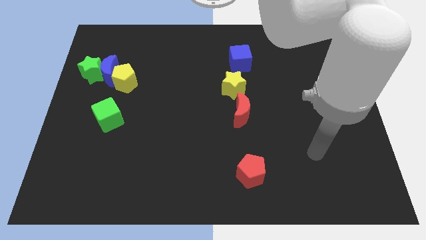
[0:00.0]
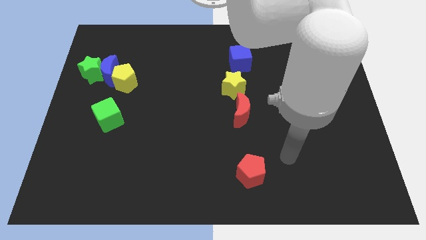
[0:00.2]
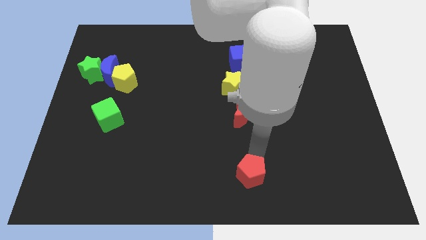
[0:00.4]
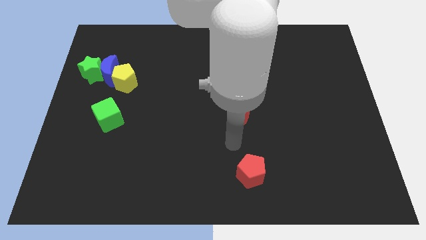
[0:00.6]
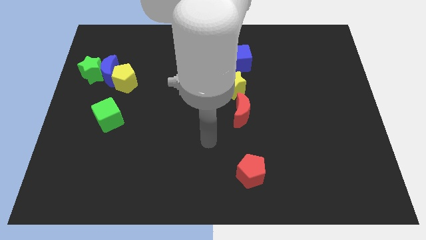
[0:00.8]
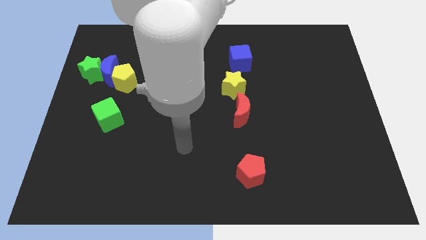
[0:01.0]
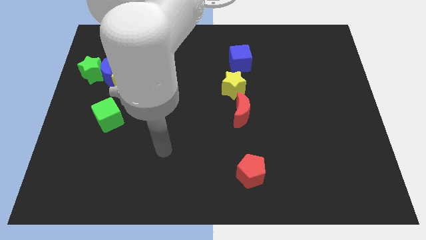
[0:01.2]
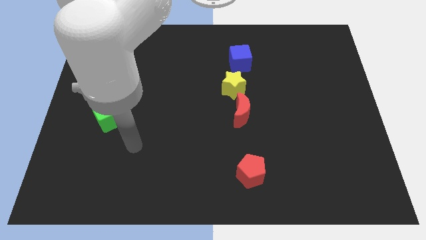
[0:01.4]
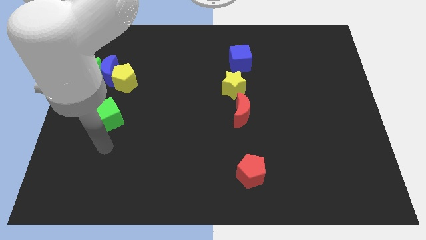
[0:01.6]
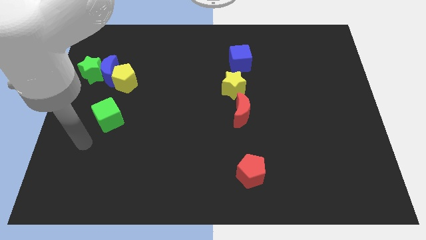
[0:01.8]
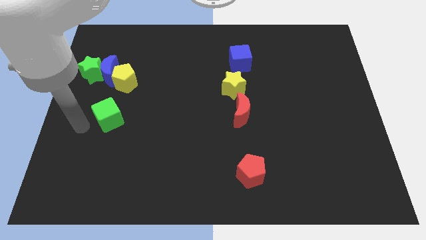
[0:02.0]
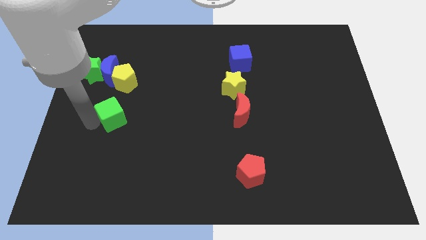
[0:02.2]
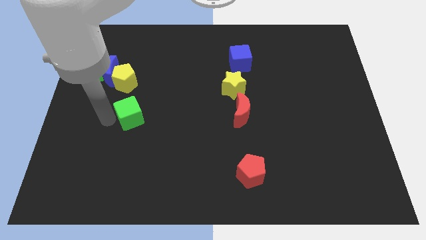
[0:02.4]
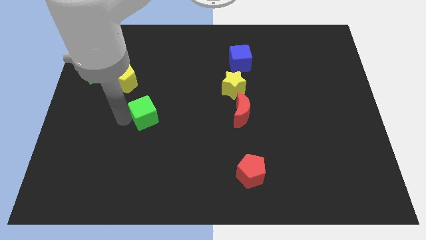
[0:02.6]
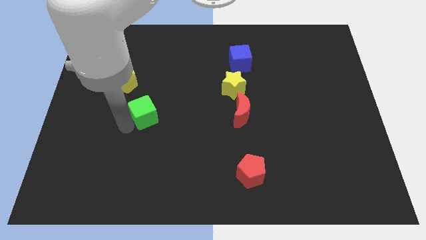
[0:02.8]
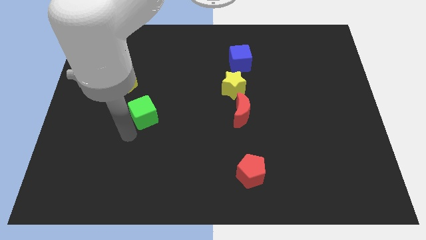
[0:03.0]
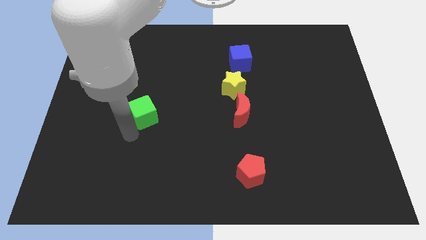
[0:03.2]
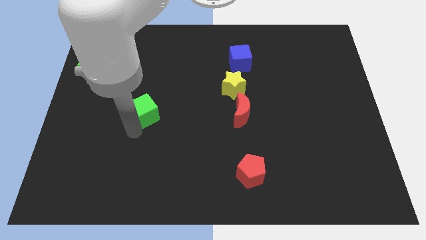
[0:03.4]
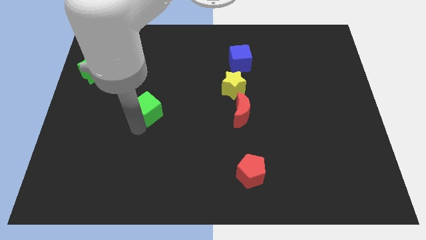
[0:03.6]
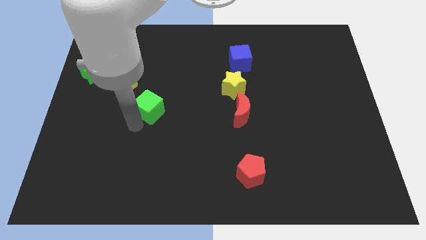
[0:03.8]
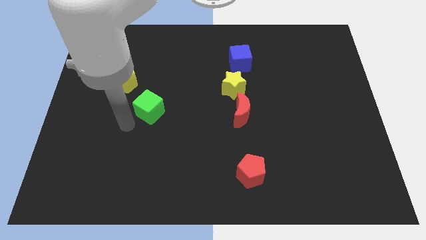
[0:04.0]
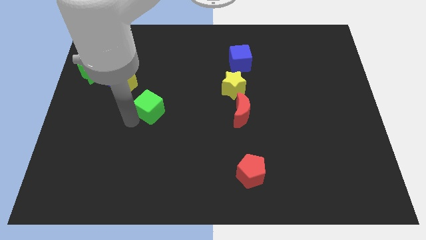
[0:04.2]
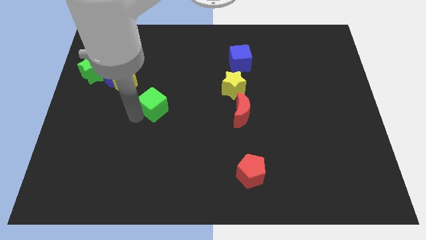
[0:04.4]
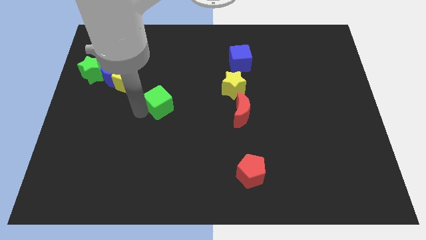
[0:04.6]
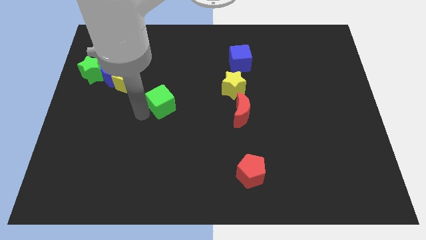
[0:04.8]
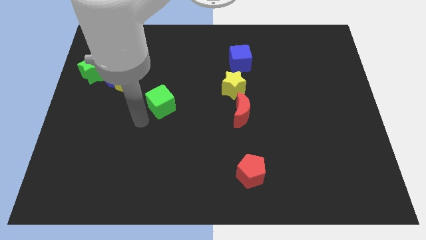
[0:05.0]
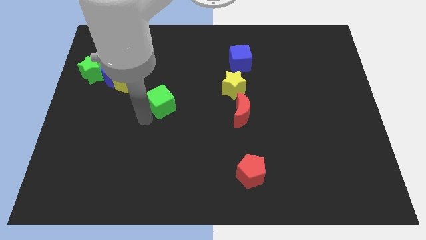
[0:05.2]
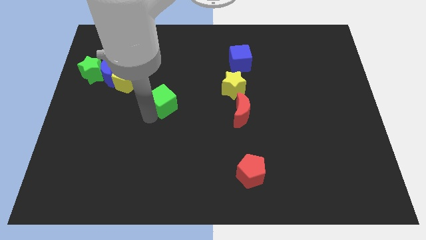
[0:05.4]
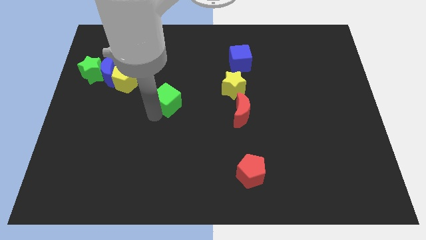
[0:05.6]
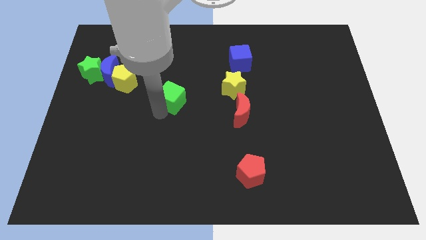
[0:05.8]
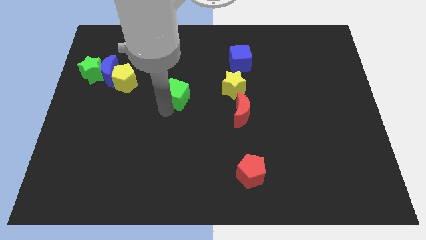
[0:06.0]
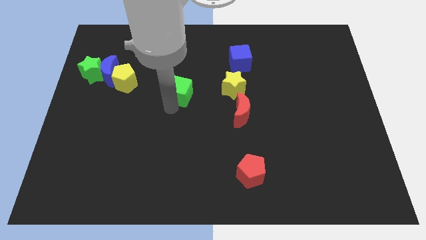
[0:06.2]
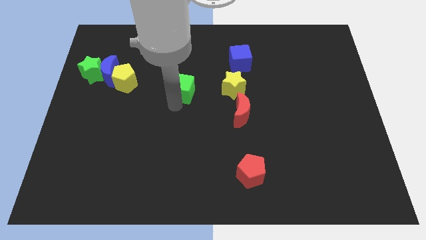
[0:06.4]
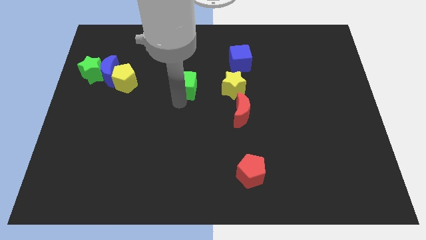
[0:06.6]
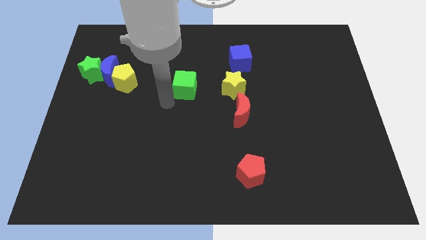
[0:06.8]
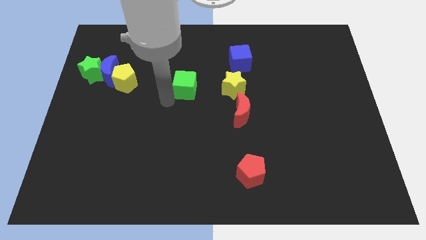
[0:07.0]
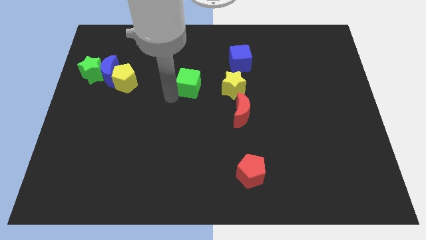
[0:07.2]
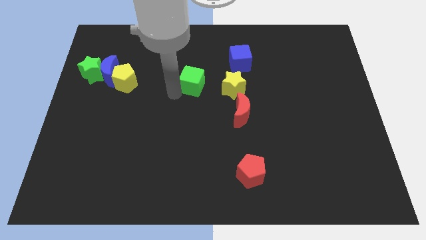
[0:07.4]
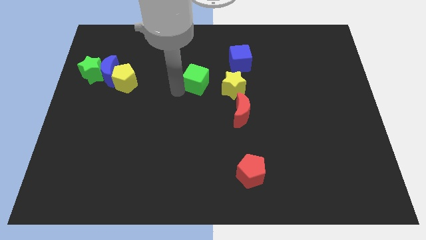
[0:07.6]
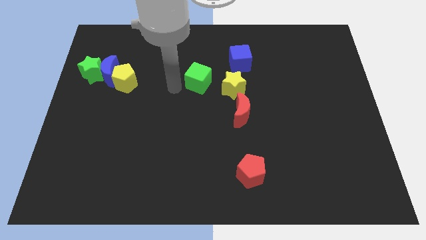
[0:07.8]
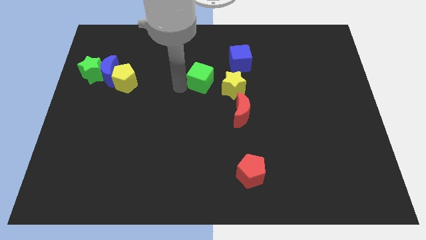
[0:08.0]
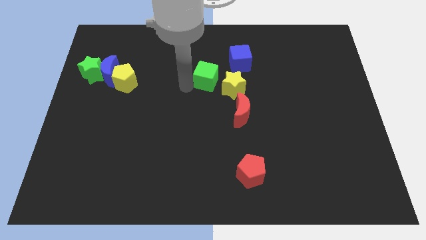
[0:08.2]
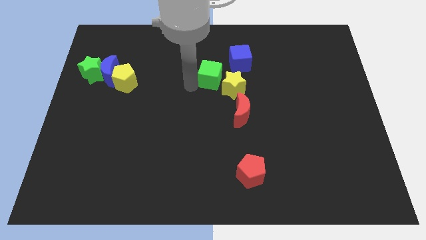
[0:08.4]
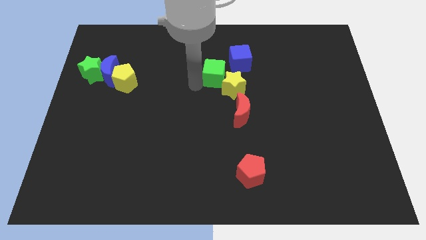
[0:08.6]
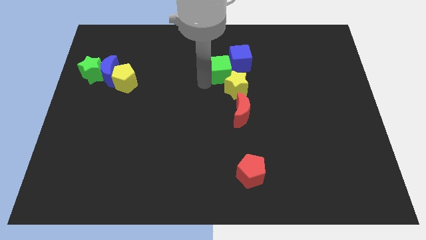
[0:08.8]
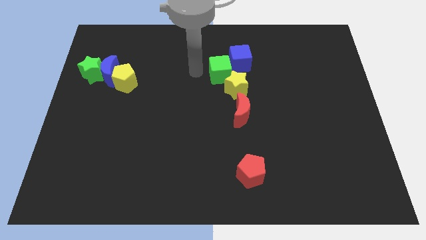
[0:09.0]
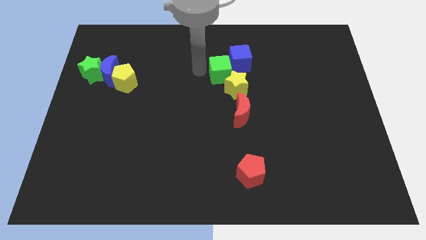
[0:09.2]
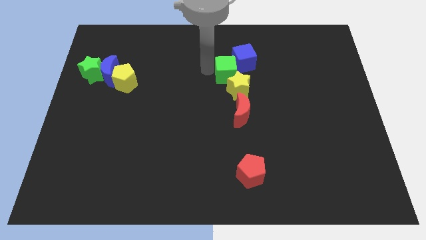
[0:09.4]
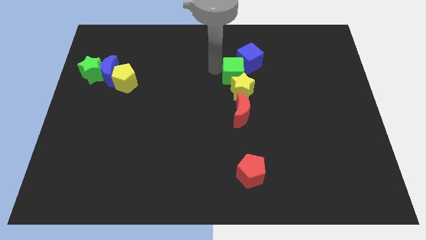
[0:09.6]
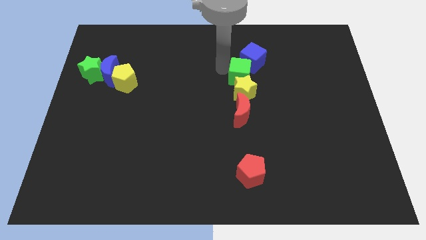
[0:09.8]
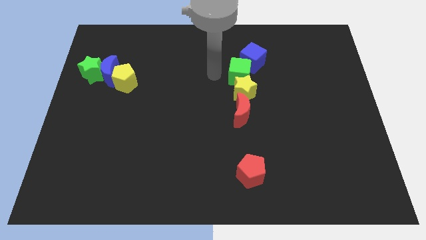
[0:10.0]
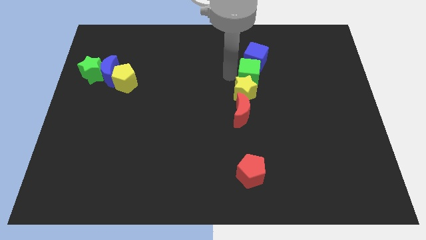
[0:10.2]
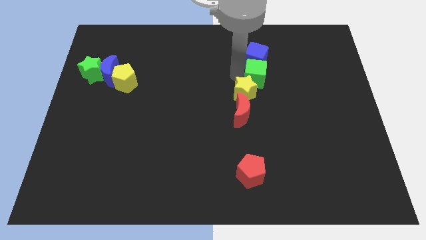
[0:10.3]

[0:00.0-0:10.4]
push the green cube diagonally down and to the right of the blue cube

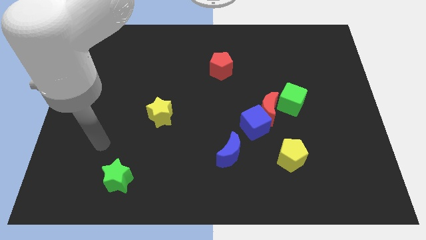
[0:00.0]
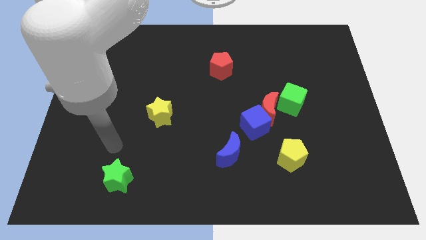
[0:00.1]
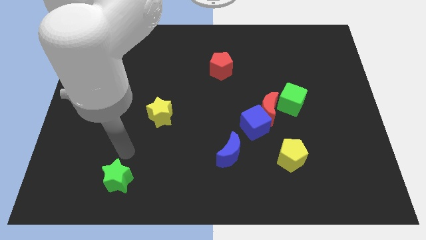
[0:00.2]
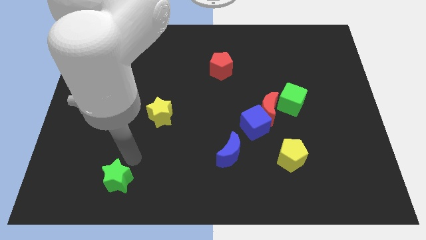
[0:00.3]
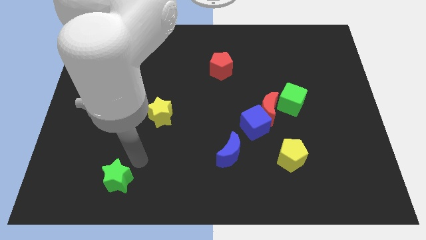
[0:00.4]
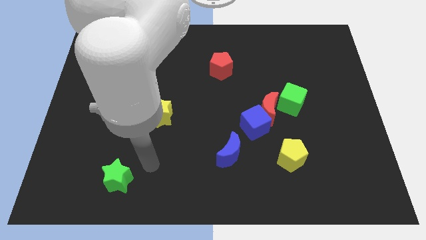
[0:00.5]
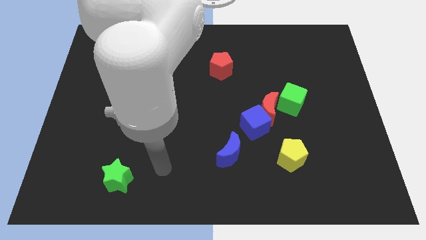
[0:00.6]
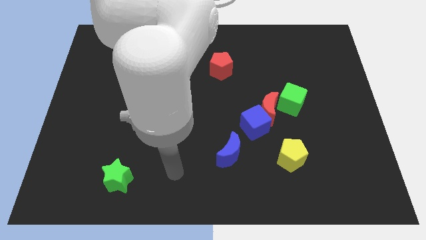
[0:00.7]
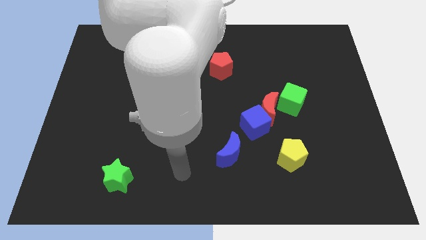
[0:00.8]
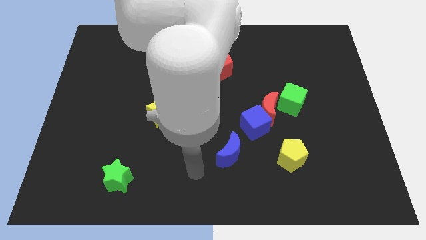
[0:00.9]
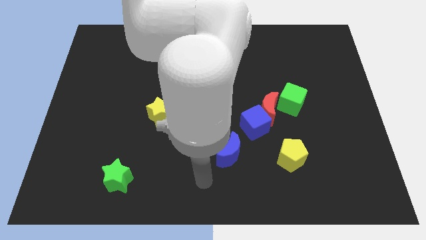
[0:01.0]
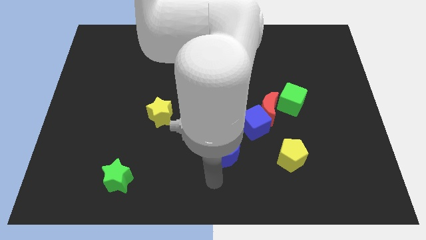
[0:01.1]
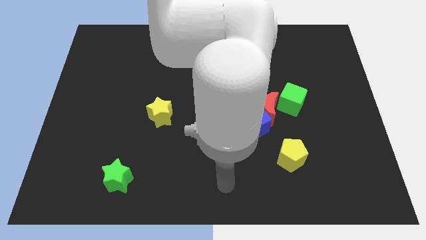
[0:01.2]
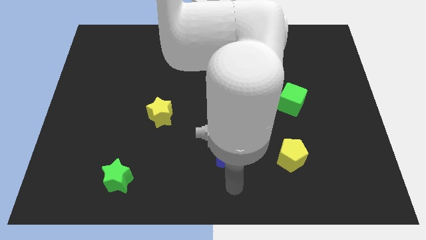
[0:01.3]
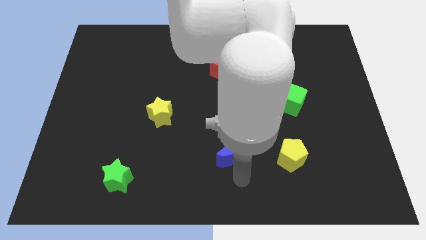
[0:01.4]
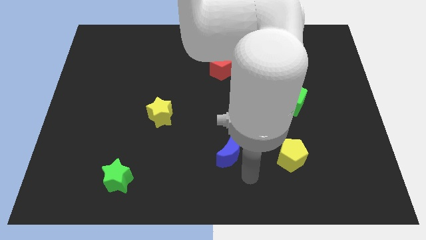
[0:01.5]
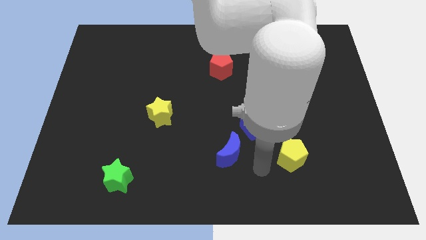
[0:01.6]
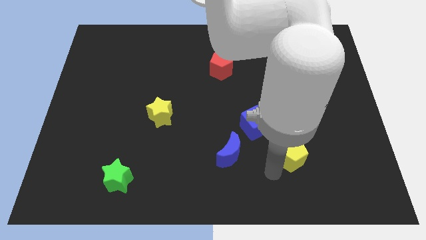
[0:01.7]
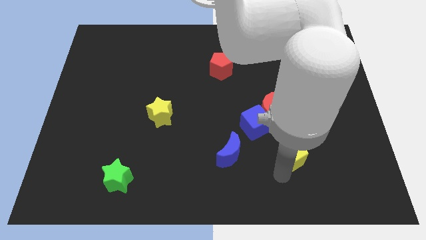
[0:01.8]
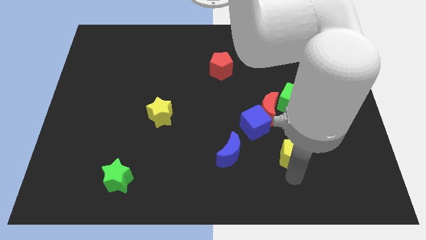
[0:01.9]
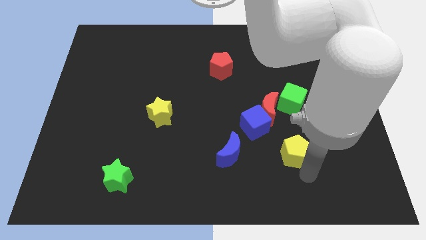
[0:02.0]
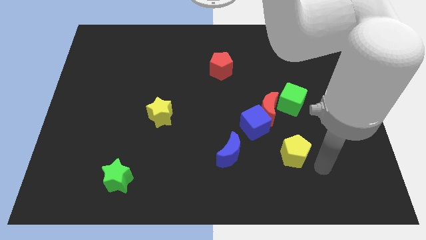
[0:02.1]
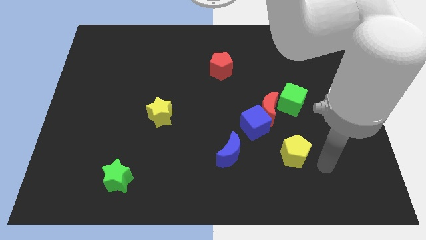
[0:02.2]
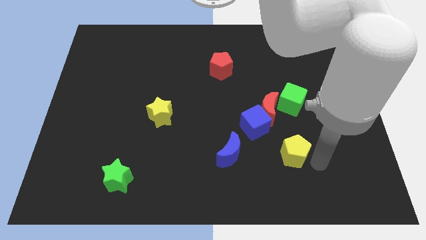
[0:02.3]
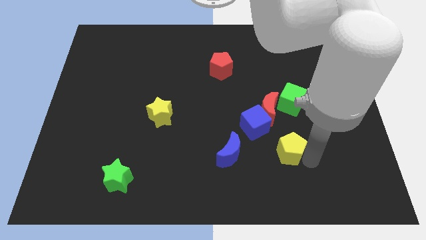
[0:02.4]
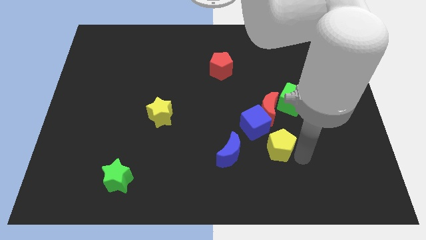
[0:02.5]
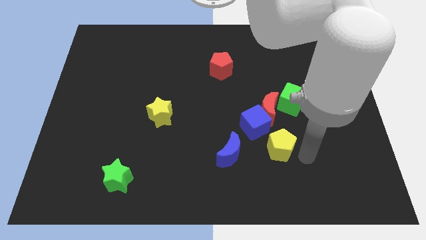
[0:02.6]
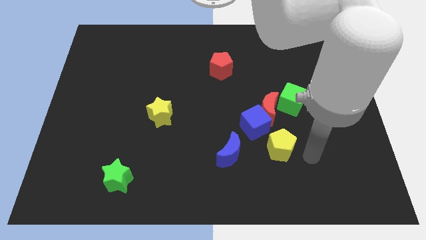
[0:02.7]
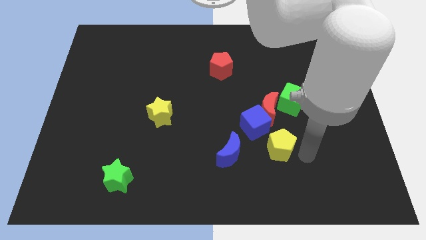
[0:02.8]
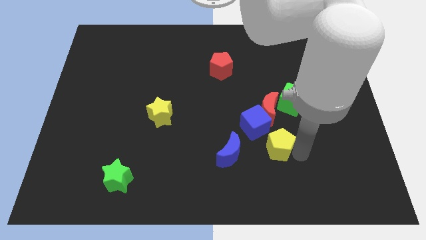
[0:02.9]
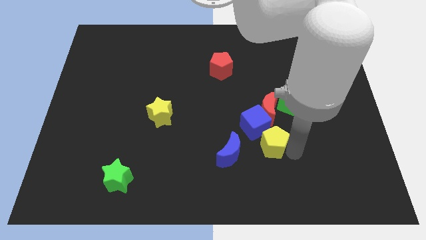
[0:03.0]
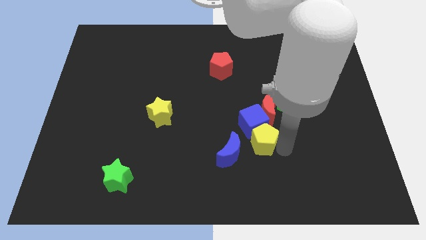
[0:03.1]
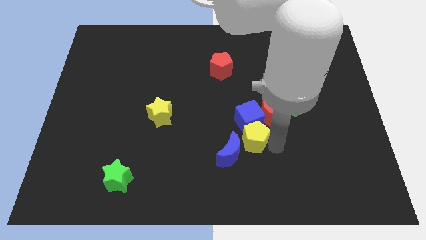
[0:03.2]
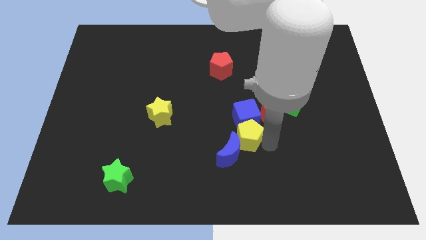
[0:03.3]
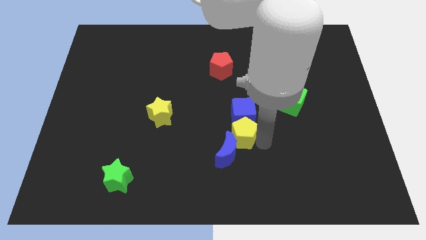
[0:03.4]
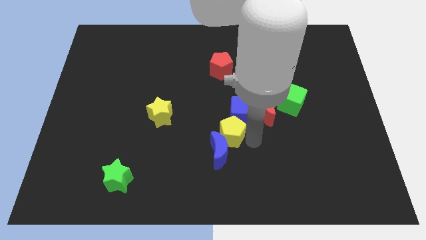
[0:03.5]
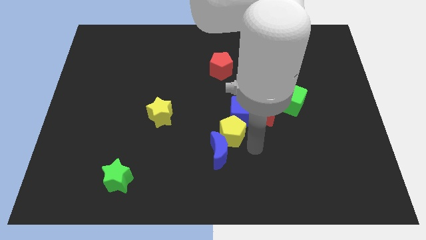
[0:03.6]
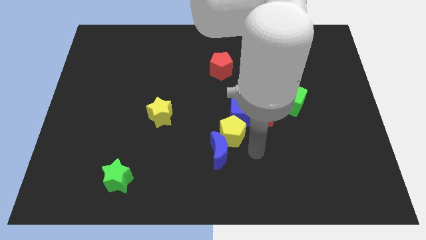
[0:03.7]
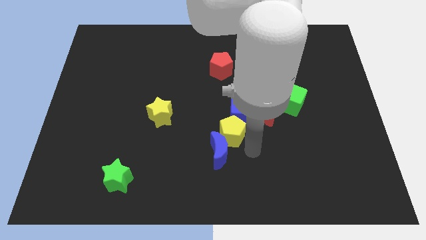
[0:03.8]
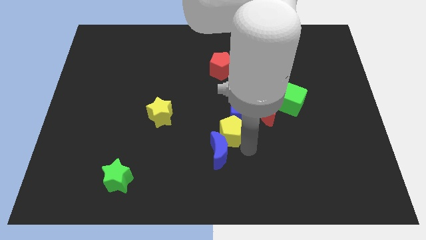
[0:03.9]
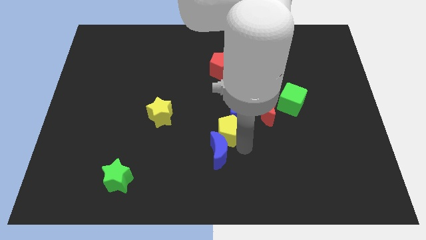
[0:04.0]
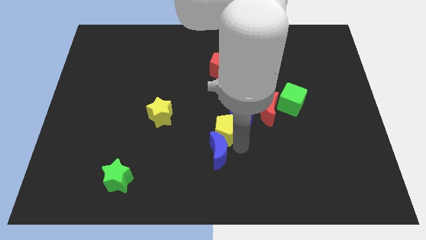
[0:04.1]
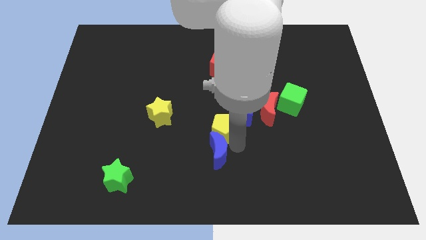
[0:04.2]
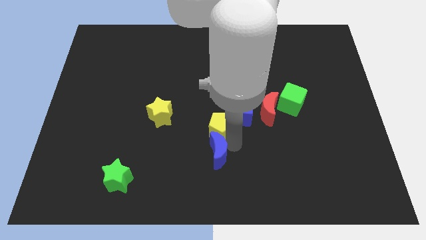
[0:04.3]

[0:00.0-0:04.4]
slide the yellow pentagon to the right side of the yellow star
